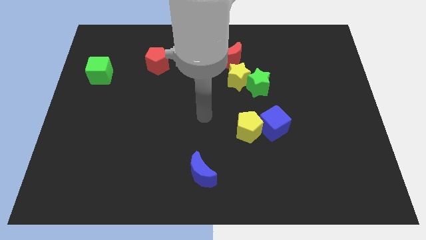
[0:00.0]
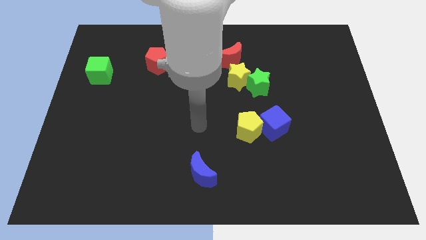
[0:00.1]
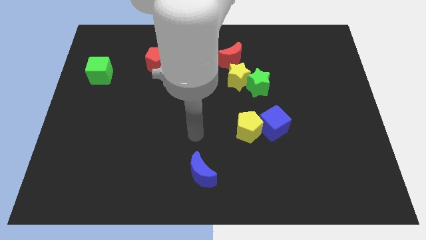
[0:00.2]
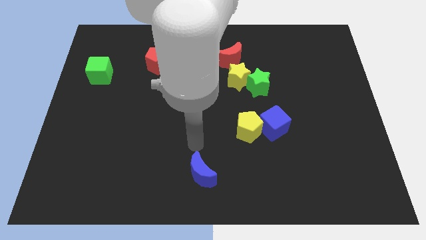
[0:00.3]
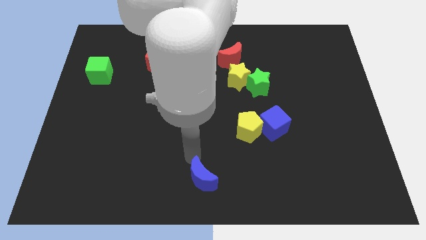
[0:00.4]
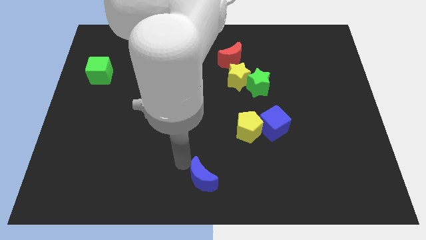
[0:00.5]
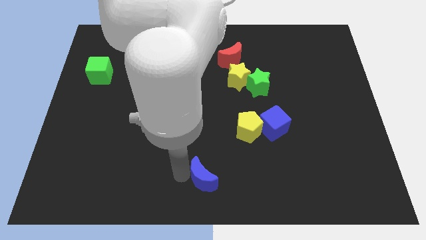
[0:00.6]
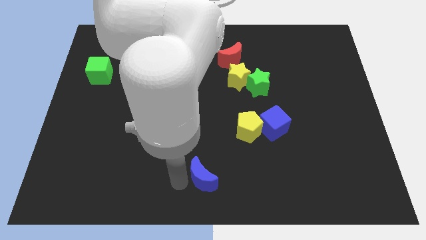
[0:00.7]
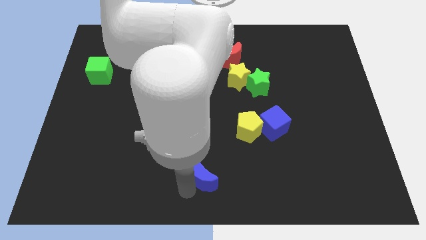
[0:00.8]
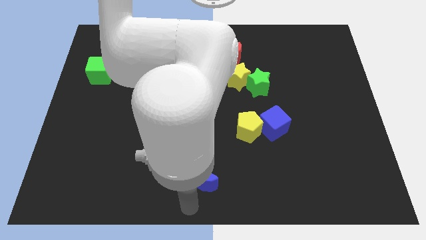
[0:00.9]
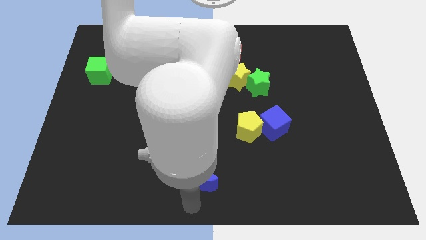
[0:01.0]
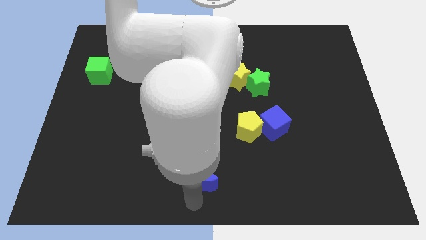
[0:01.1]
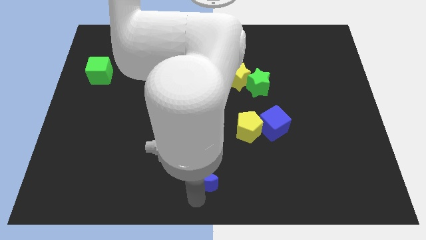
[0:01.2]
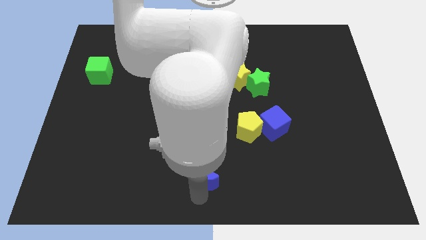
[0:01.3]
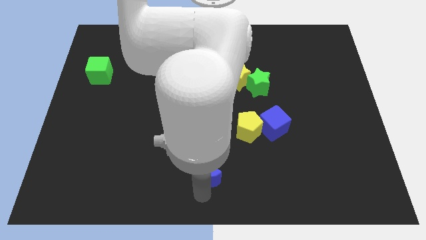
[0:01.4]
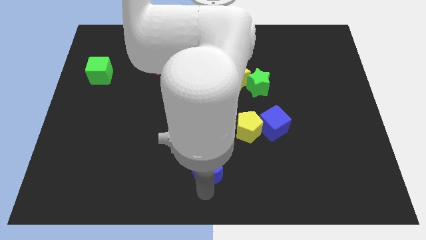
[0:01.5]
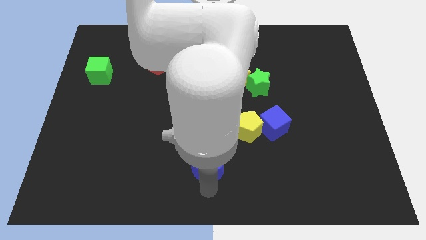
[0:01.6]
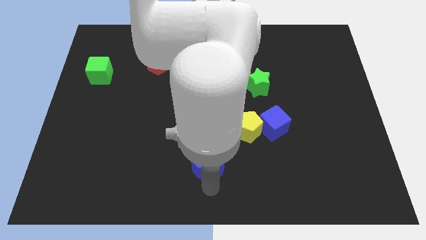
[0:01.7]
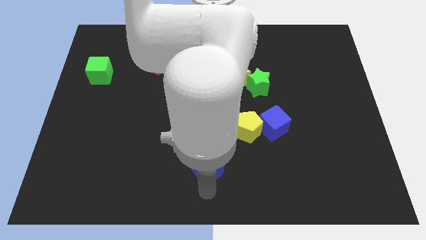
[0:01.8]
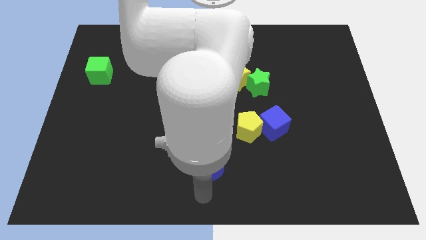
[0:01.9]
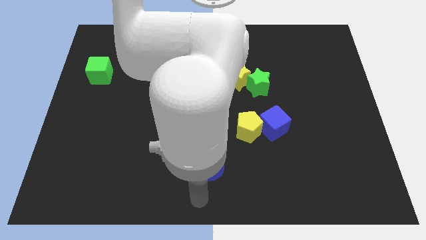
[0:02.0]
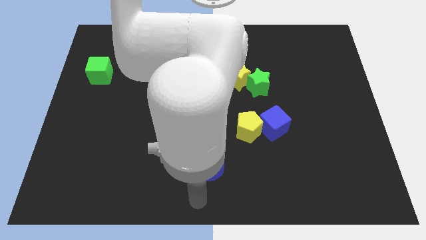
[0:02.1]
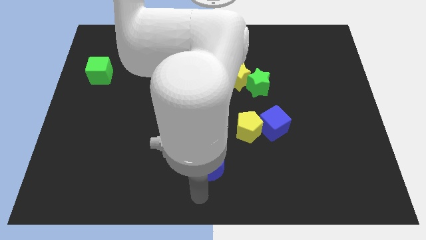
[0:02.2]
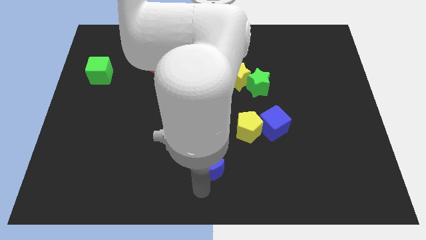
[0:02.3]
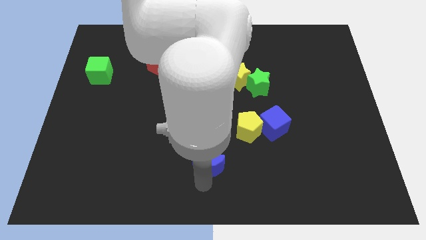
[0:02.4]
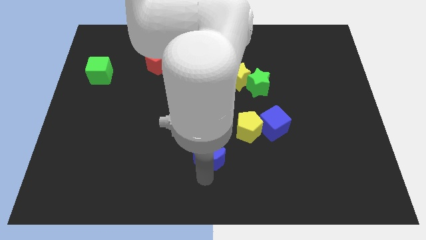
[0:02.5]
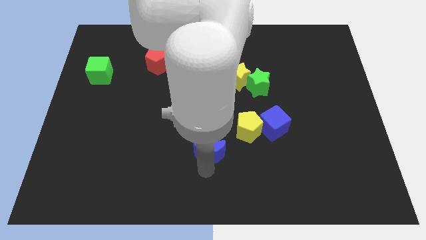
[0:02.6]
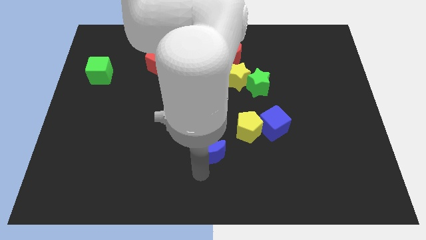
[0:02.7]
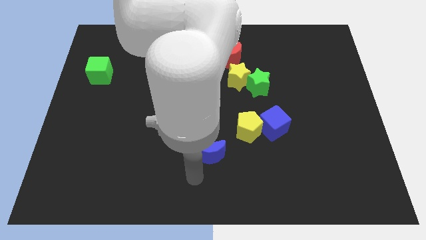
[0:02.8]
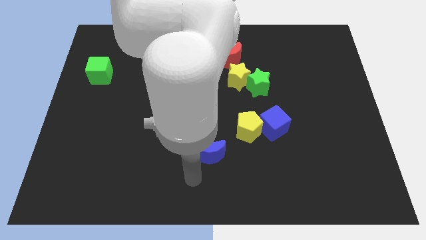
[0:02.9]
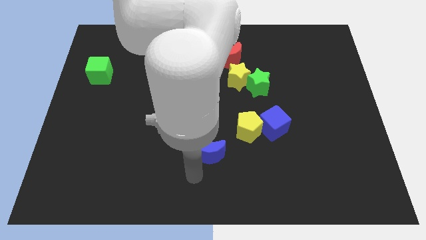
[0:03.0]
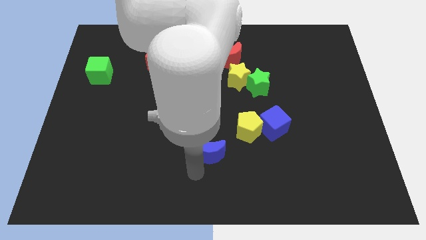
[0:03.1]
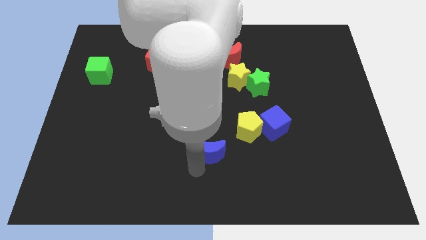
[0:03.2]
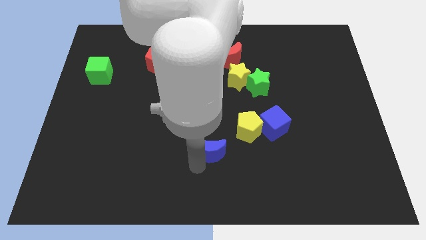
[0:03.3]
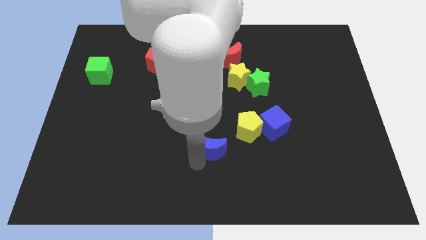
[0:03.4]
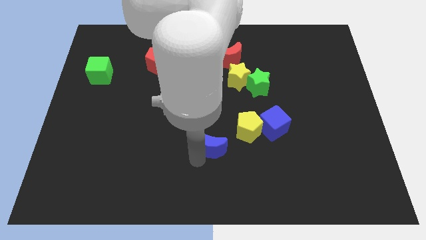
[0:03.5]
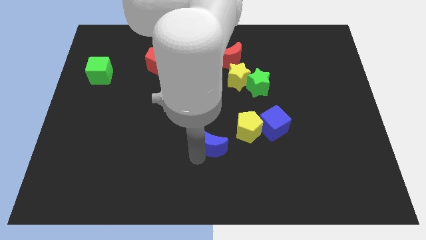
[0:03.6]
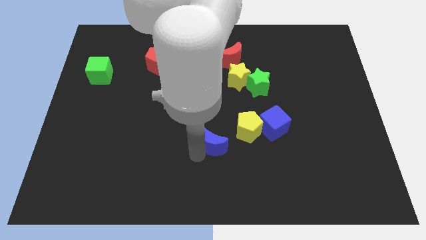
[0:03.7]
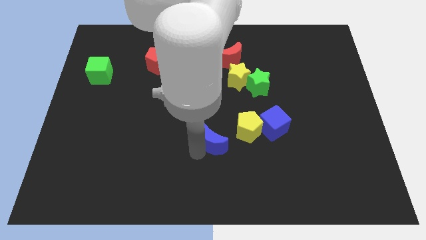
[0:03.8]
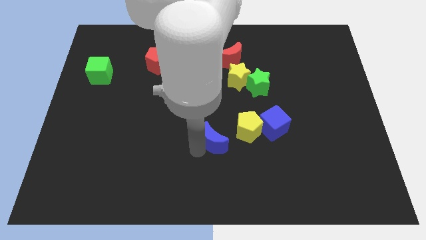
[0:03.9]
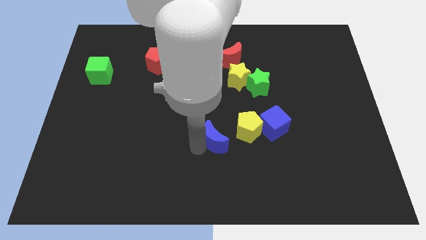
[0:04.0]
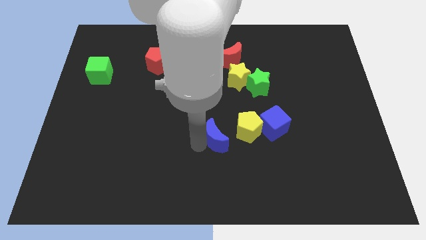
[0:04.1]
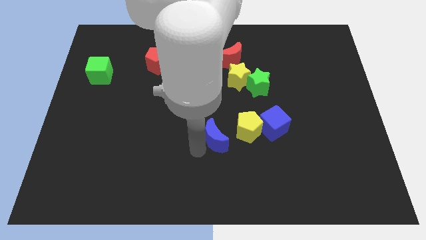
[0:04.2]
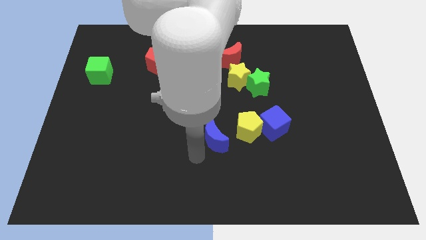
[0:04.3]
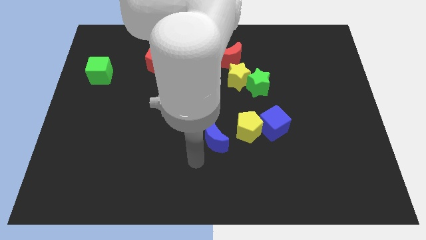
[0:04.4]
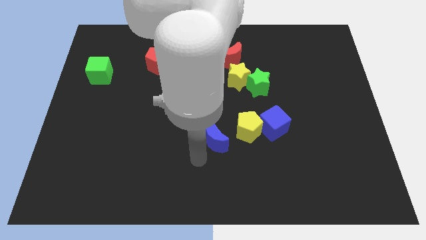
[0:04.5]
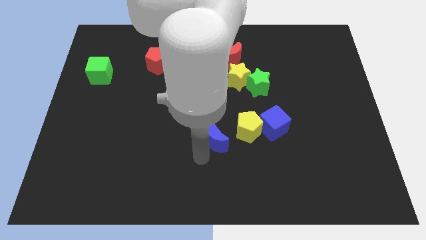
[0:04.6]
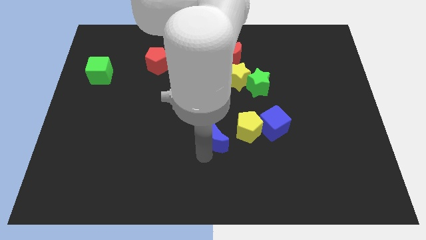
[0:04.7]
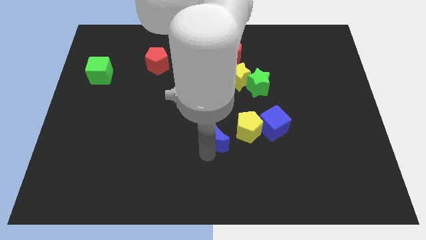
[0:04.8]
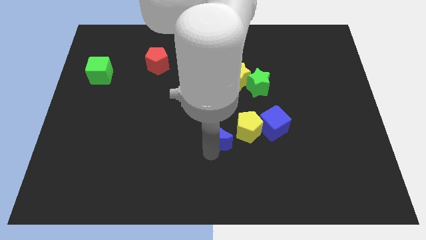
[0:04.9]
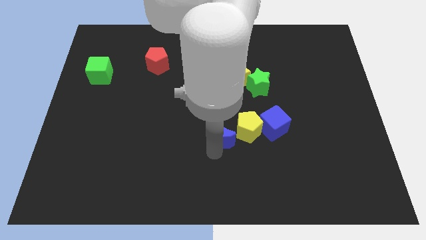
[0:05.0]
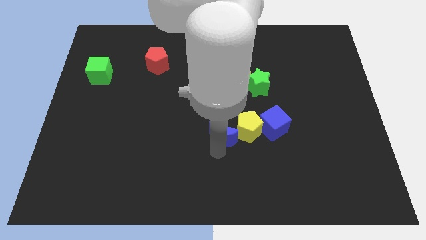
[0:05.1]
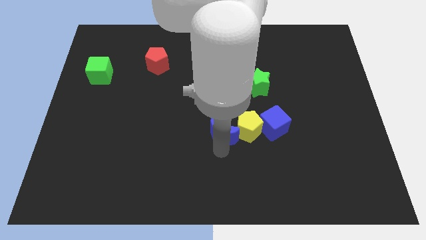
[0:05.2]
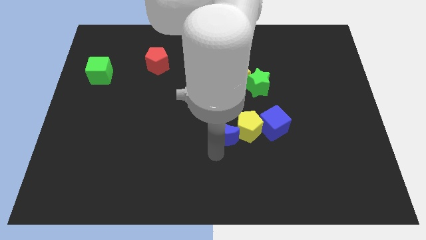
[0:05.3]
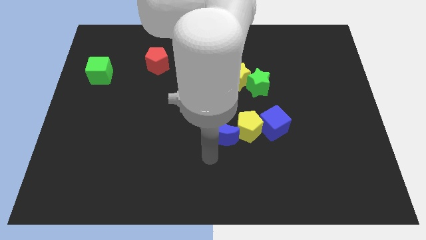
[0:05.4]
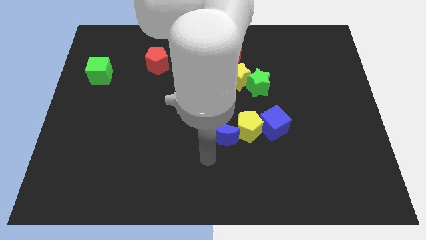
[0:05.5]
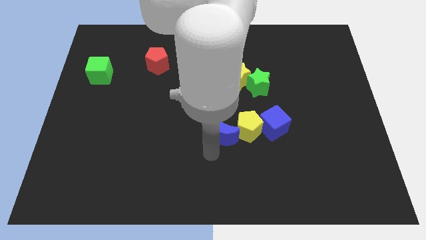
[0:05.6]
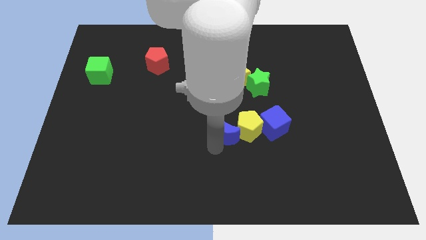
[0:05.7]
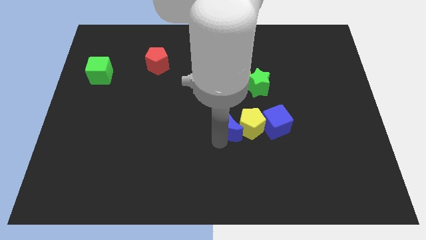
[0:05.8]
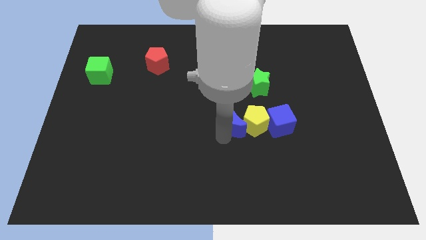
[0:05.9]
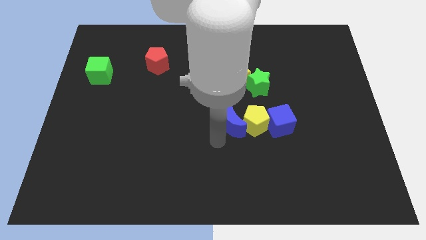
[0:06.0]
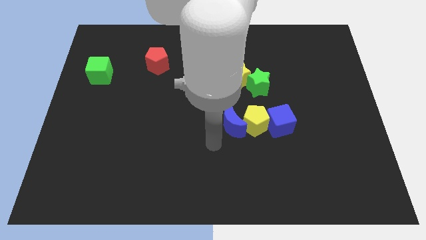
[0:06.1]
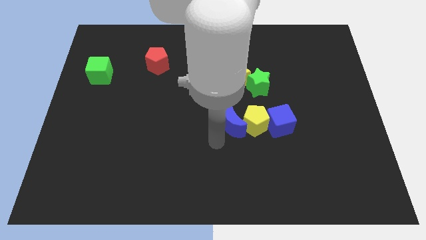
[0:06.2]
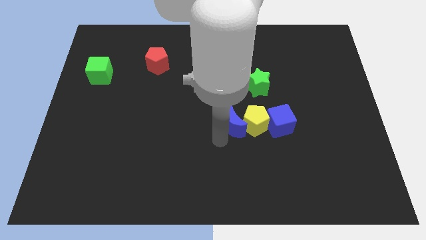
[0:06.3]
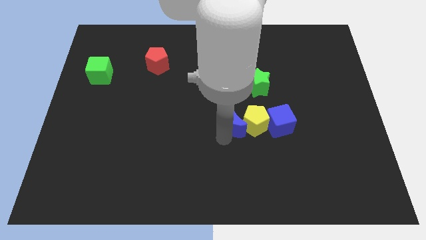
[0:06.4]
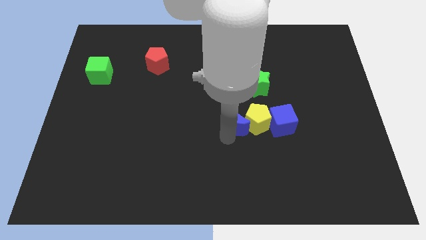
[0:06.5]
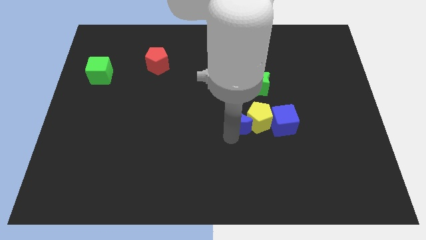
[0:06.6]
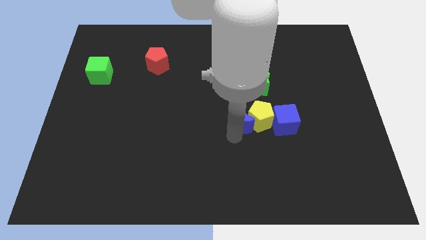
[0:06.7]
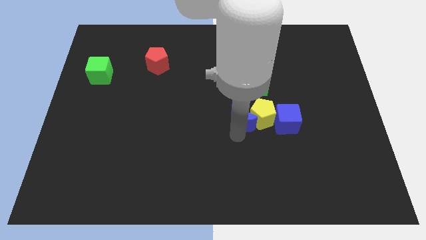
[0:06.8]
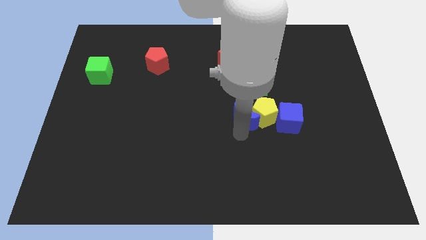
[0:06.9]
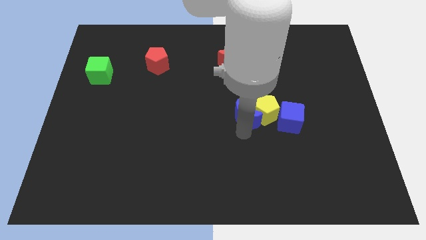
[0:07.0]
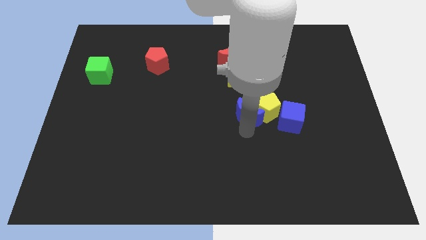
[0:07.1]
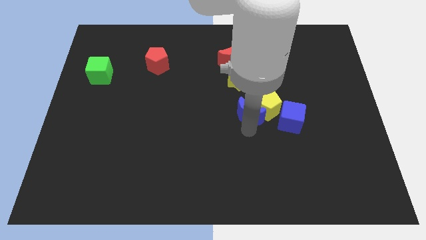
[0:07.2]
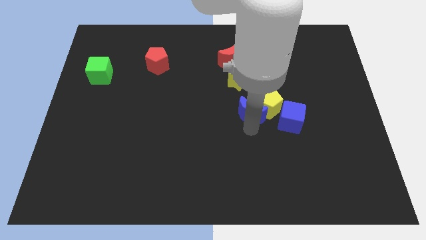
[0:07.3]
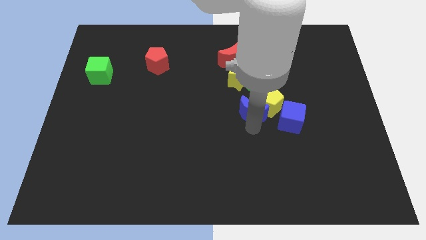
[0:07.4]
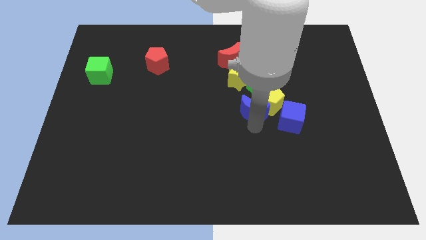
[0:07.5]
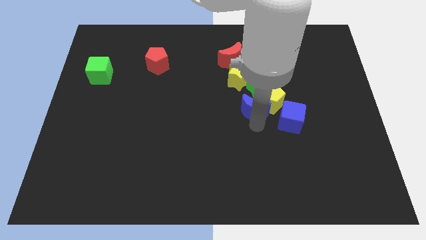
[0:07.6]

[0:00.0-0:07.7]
move the blue moon diagonally upwards and to the right

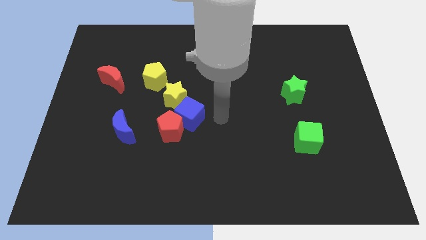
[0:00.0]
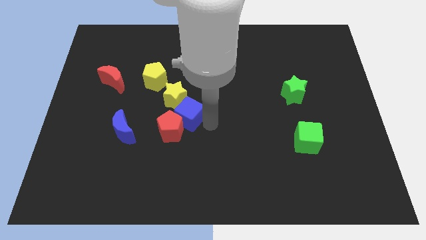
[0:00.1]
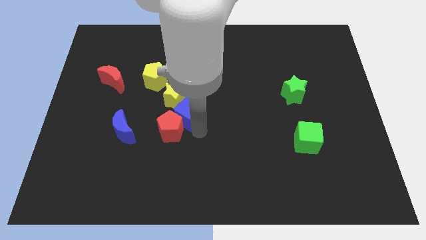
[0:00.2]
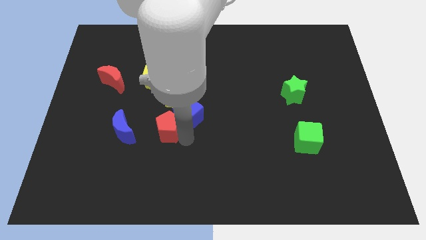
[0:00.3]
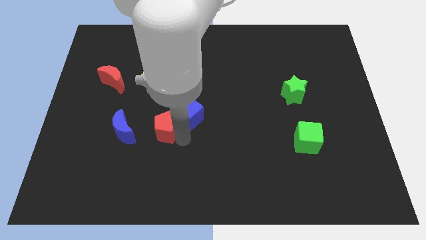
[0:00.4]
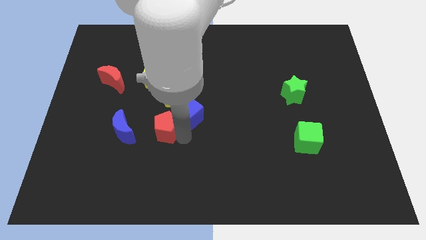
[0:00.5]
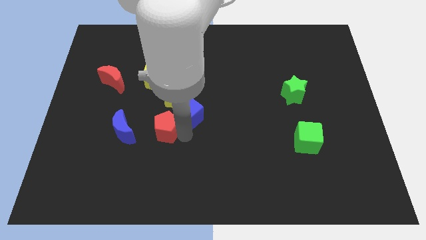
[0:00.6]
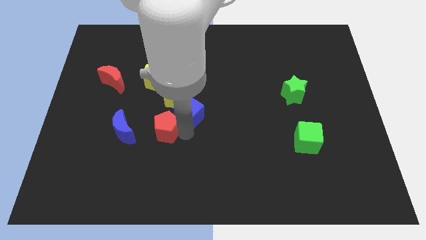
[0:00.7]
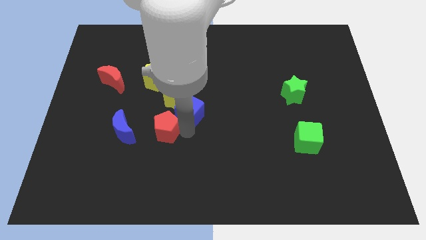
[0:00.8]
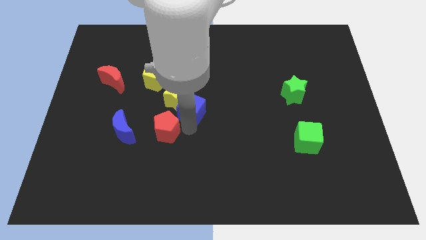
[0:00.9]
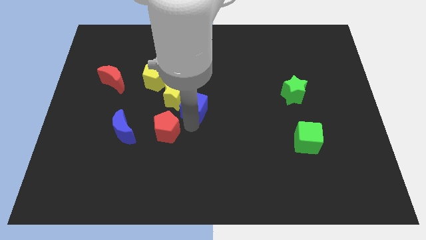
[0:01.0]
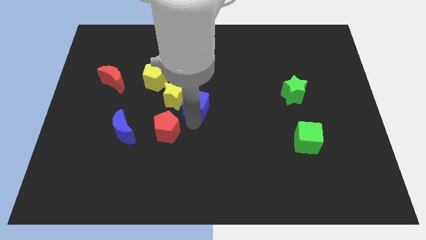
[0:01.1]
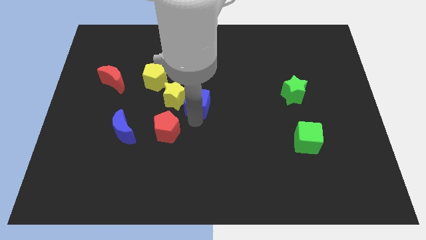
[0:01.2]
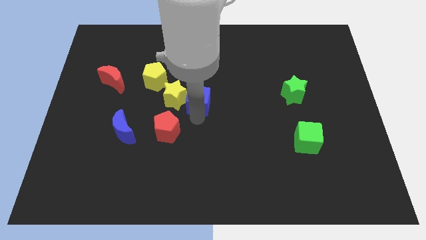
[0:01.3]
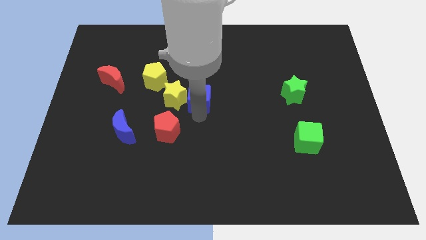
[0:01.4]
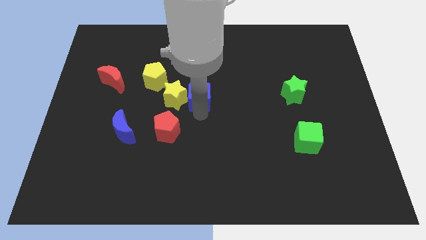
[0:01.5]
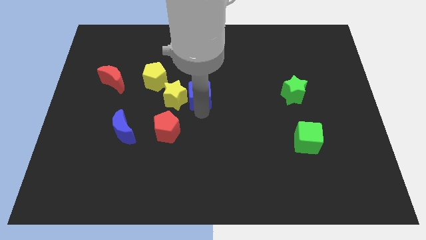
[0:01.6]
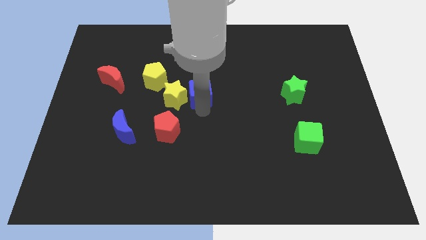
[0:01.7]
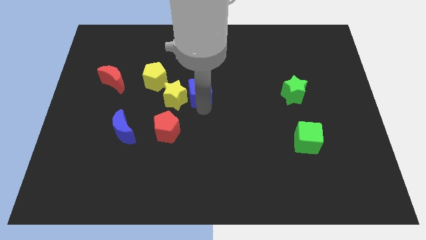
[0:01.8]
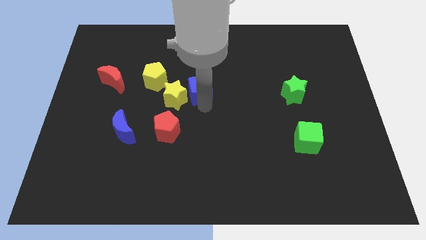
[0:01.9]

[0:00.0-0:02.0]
move the blue cube a bit up
